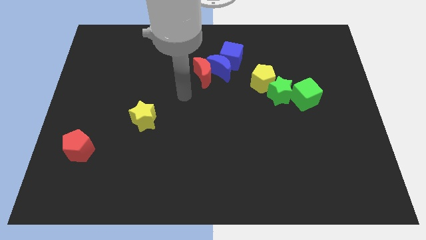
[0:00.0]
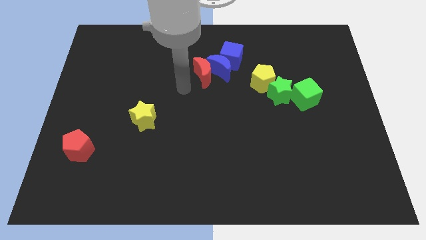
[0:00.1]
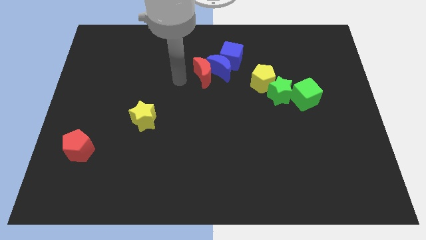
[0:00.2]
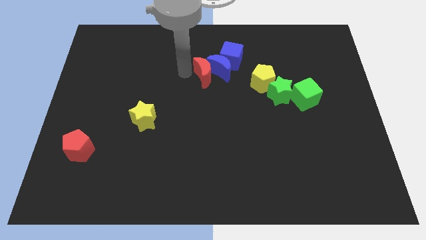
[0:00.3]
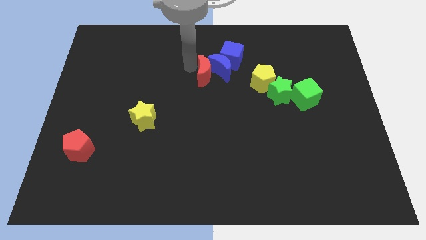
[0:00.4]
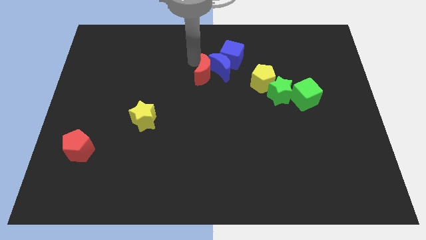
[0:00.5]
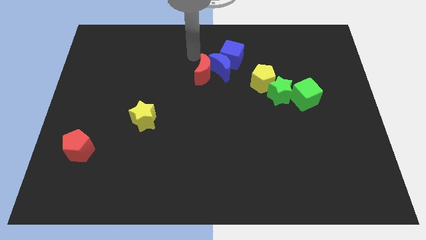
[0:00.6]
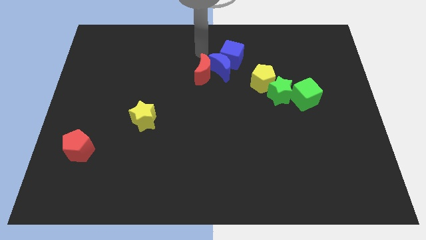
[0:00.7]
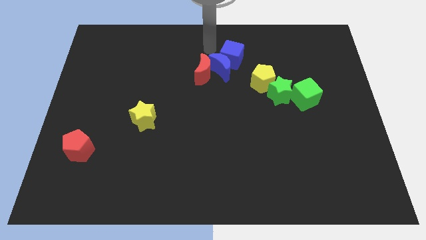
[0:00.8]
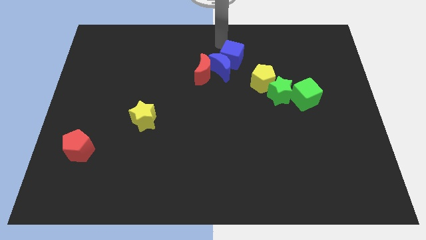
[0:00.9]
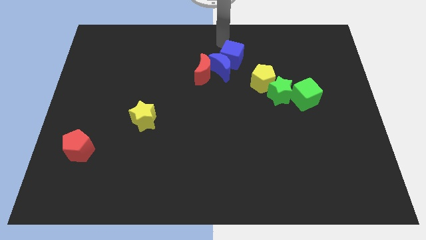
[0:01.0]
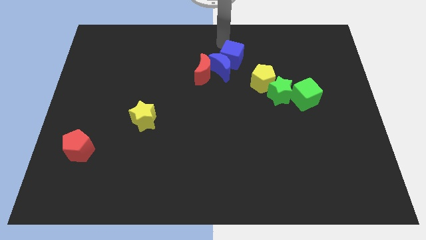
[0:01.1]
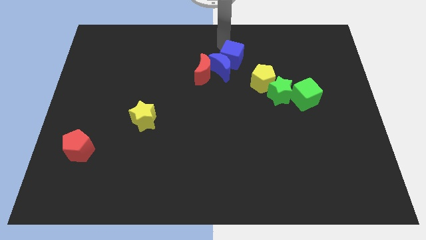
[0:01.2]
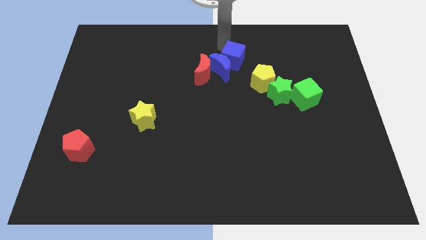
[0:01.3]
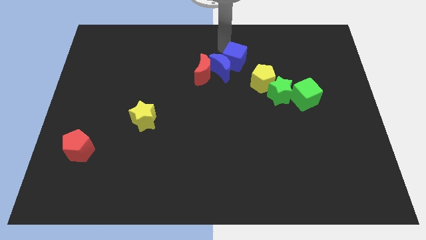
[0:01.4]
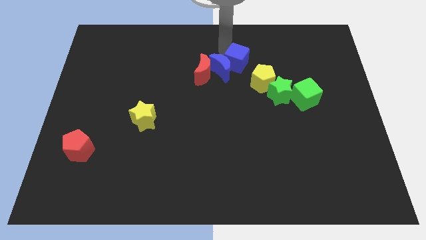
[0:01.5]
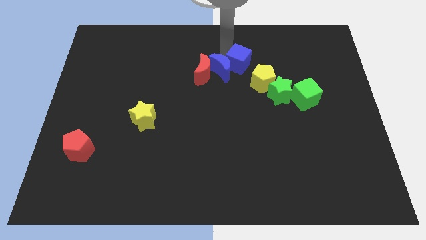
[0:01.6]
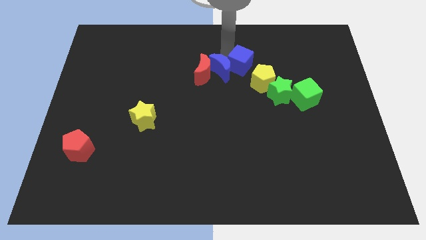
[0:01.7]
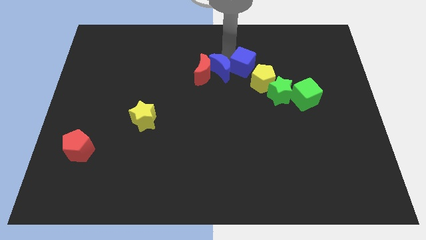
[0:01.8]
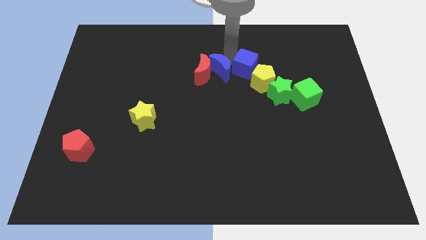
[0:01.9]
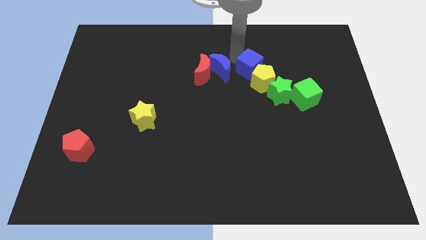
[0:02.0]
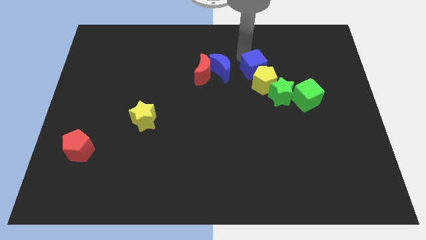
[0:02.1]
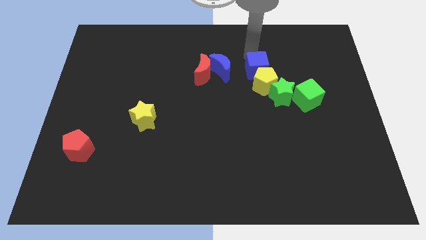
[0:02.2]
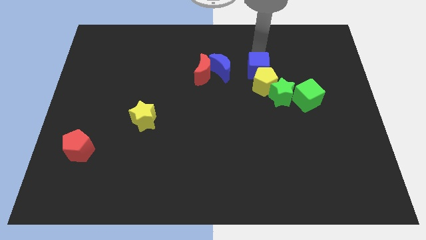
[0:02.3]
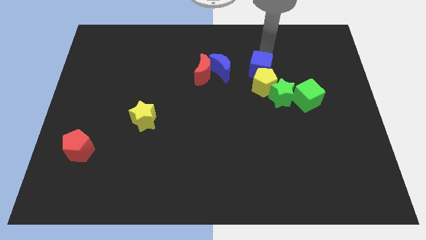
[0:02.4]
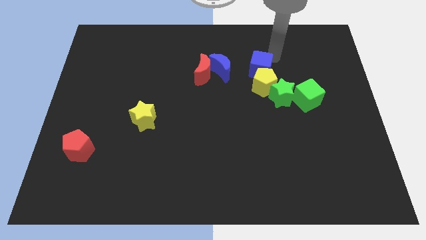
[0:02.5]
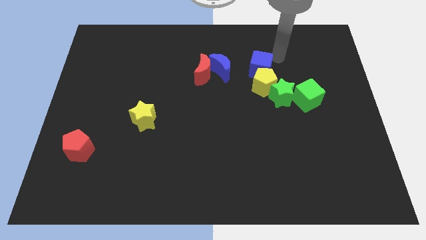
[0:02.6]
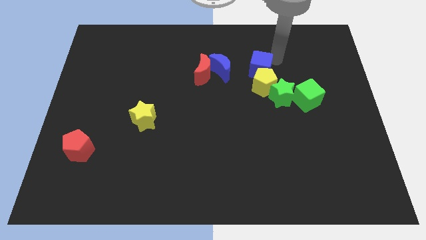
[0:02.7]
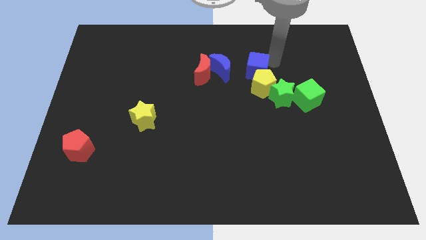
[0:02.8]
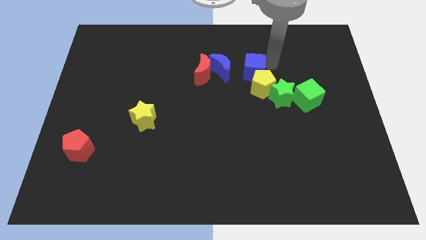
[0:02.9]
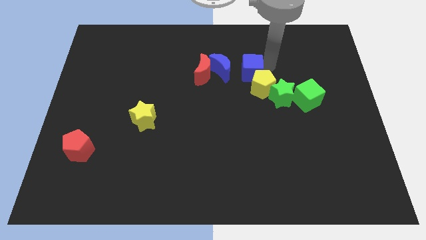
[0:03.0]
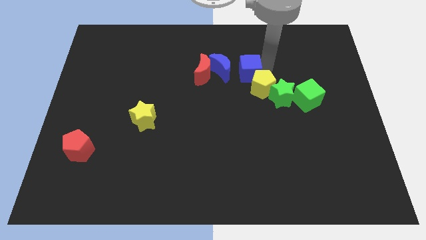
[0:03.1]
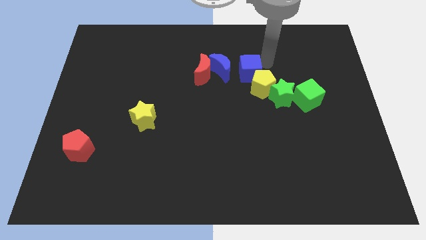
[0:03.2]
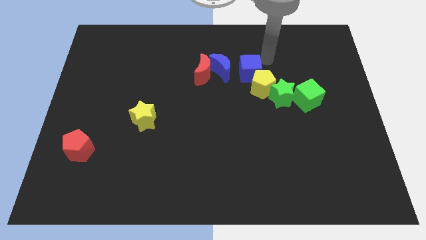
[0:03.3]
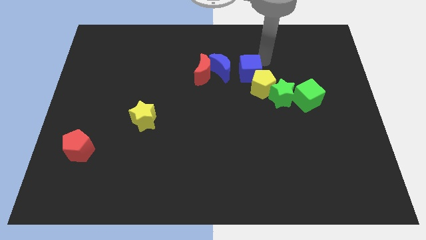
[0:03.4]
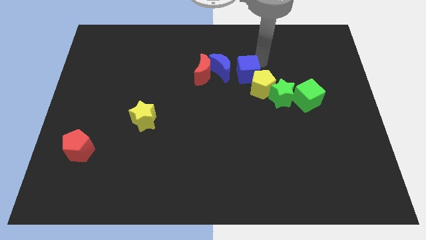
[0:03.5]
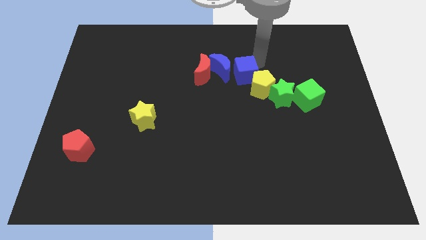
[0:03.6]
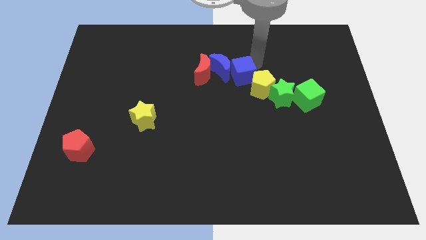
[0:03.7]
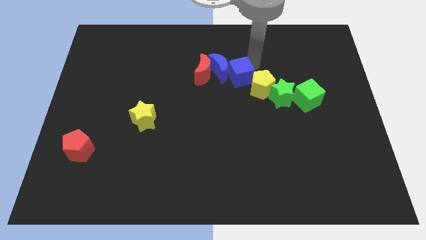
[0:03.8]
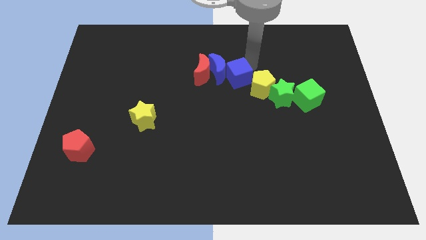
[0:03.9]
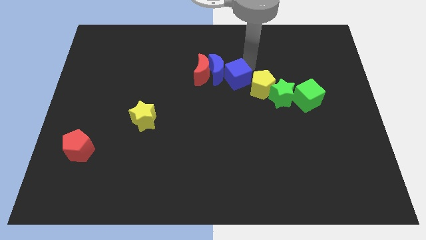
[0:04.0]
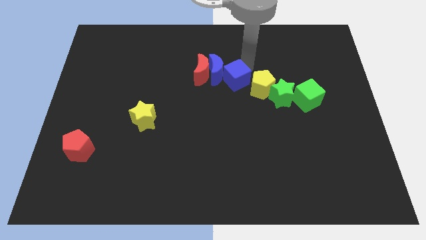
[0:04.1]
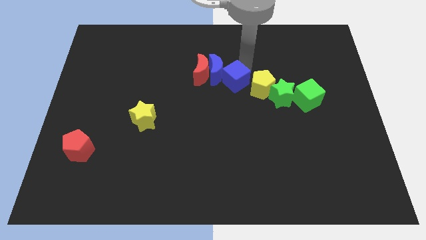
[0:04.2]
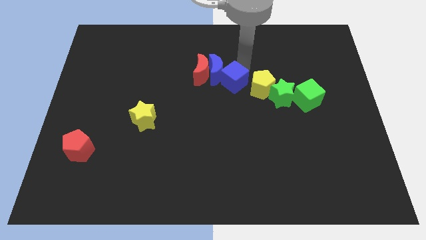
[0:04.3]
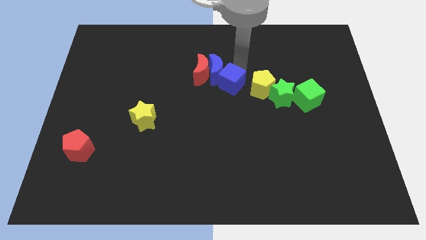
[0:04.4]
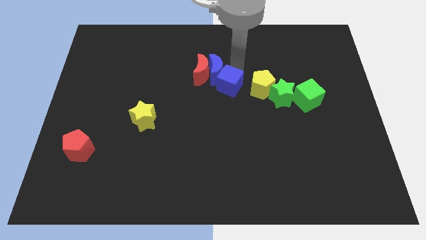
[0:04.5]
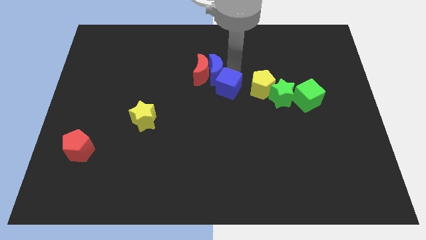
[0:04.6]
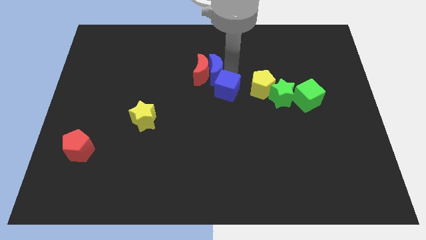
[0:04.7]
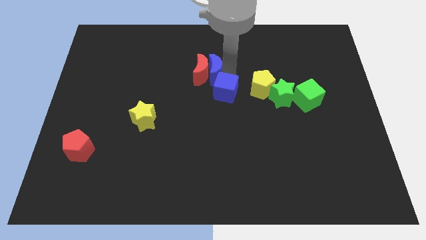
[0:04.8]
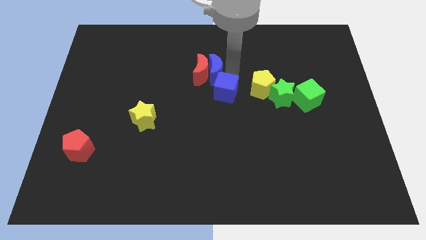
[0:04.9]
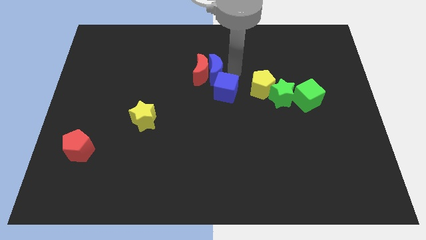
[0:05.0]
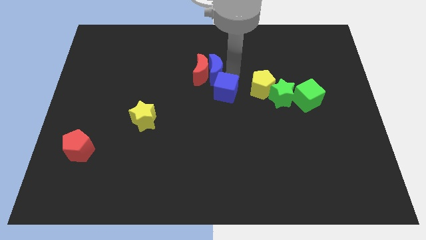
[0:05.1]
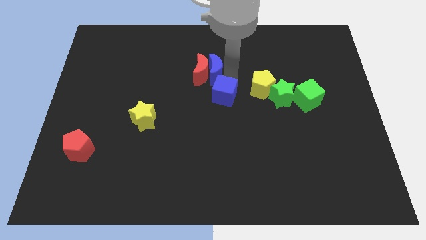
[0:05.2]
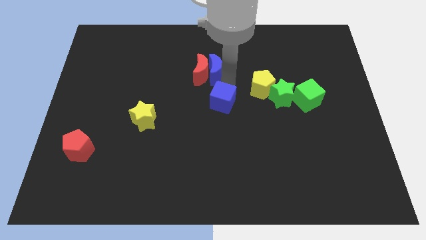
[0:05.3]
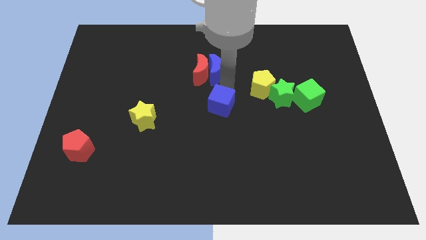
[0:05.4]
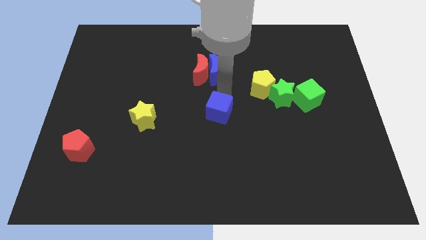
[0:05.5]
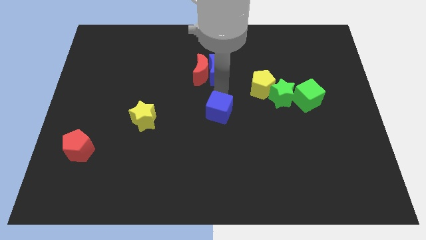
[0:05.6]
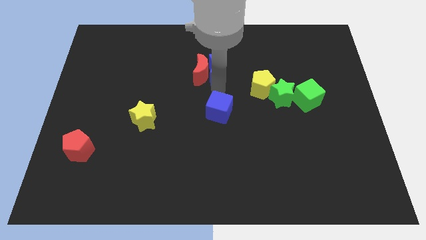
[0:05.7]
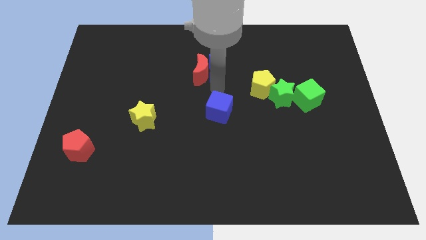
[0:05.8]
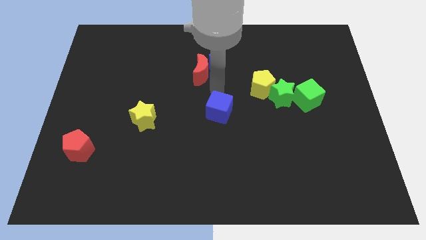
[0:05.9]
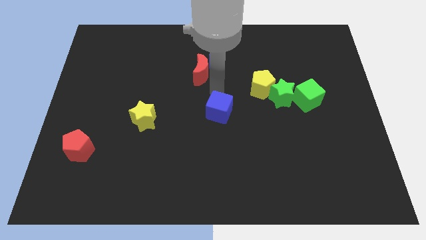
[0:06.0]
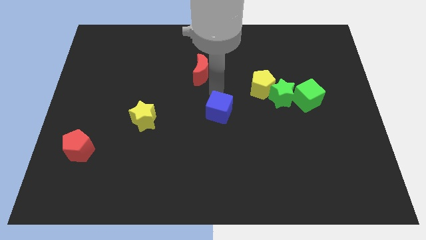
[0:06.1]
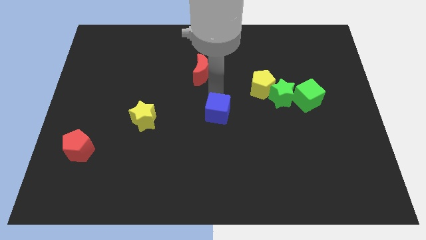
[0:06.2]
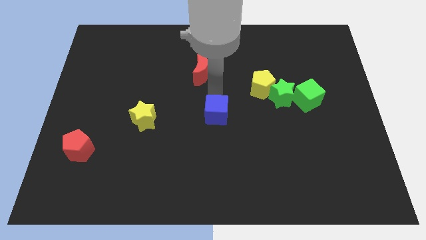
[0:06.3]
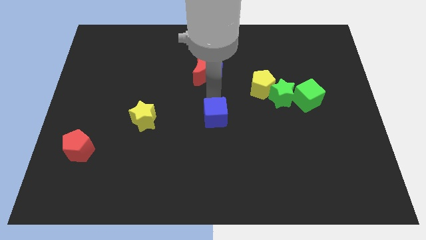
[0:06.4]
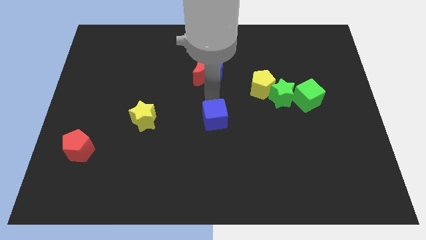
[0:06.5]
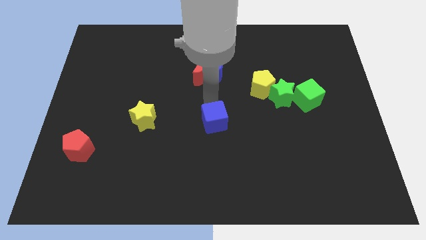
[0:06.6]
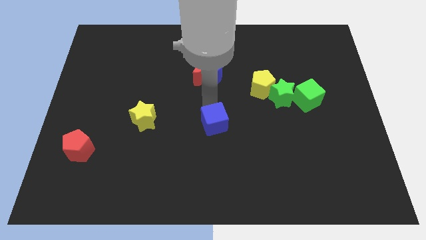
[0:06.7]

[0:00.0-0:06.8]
move the blue cube down

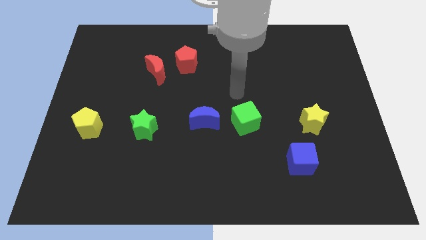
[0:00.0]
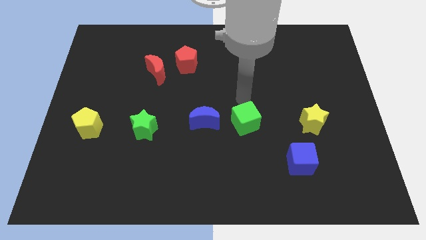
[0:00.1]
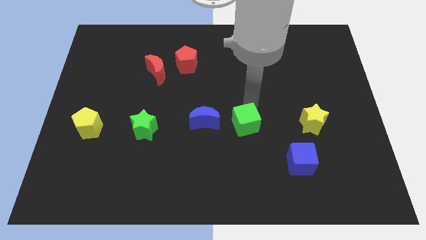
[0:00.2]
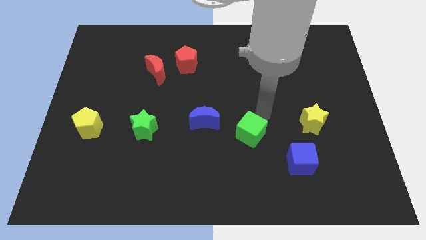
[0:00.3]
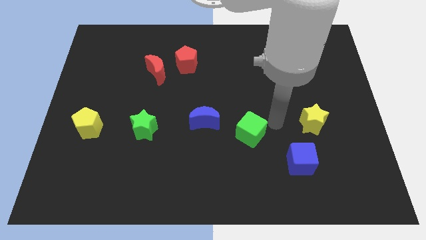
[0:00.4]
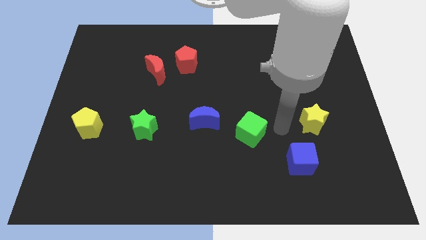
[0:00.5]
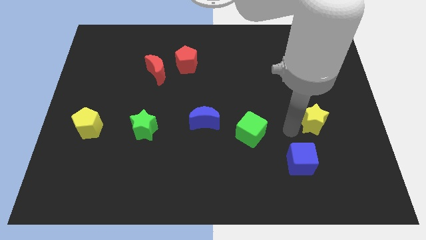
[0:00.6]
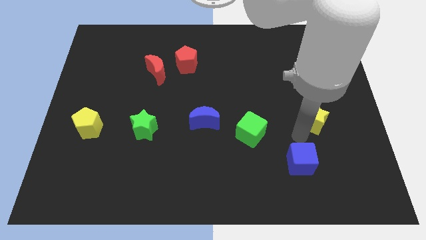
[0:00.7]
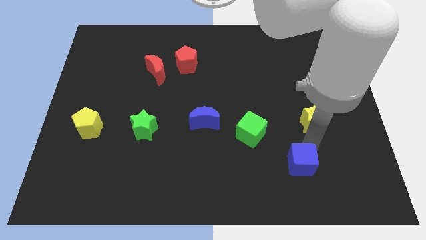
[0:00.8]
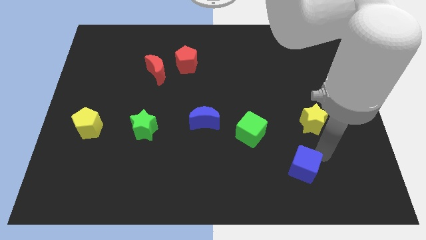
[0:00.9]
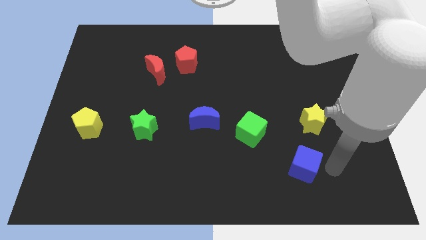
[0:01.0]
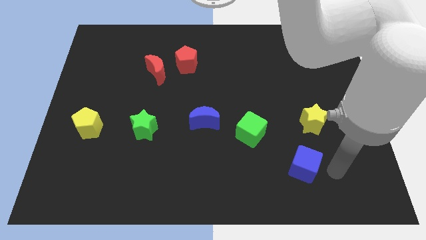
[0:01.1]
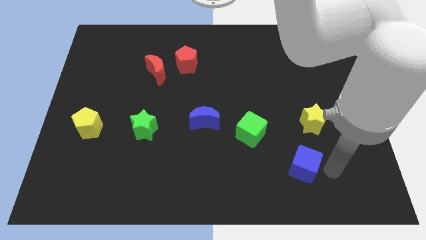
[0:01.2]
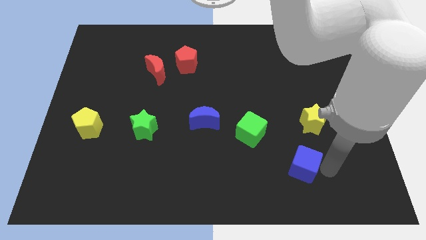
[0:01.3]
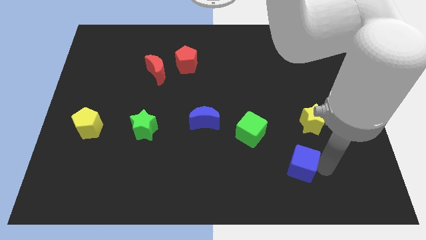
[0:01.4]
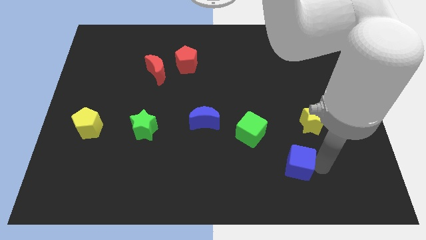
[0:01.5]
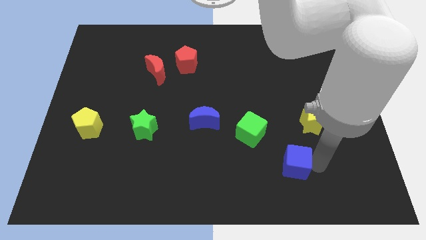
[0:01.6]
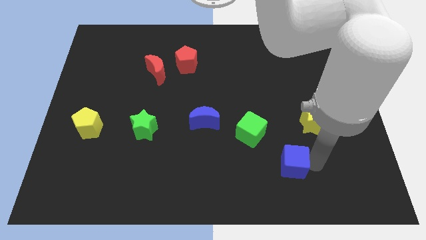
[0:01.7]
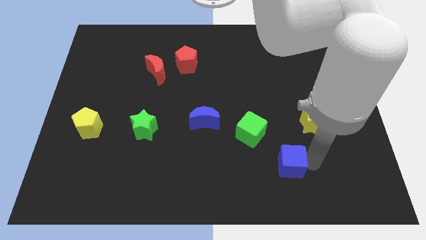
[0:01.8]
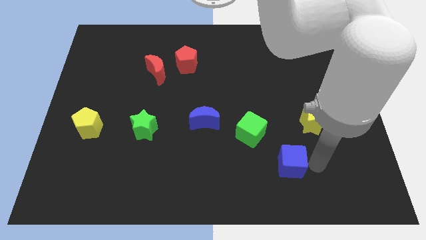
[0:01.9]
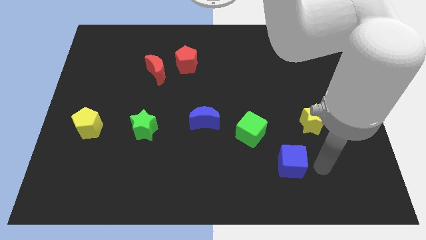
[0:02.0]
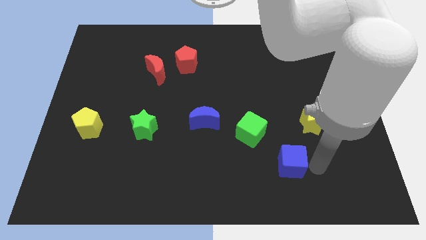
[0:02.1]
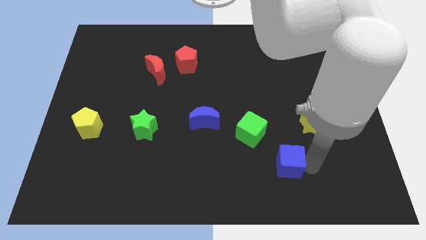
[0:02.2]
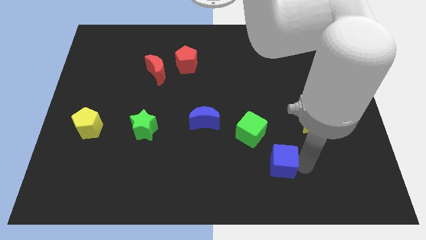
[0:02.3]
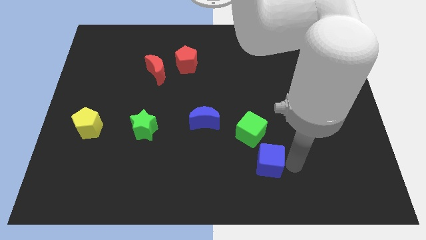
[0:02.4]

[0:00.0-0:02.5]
slide the blue cube slightly to the left
